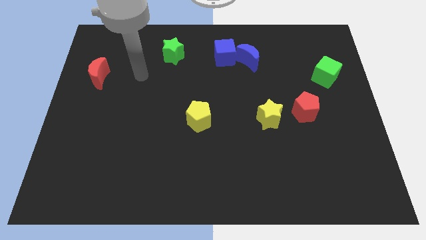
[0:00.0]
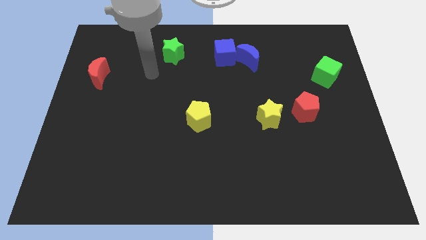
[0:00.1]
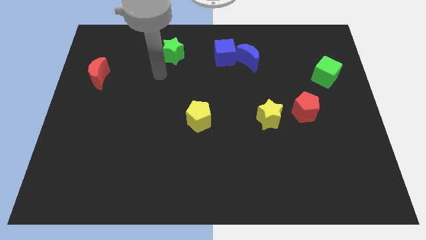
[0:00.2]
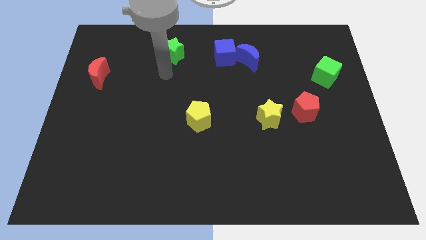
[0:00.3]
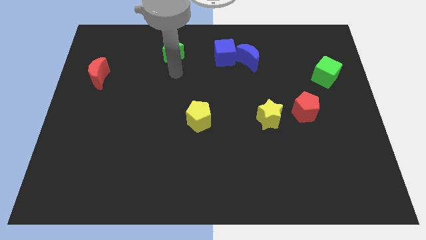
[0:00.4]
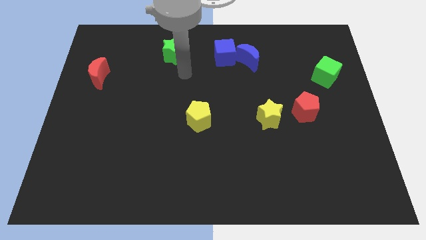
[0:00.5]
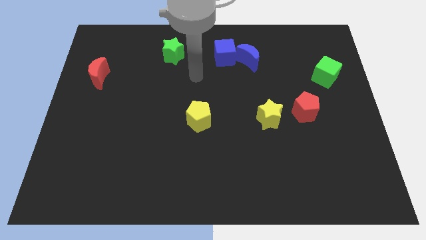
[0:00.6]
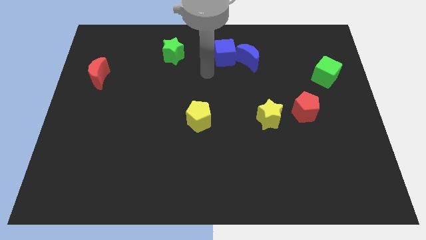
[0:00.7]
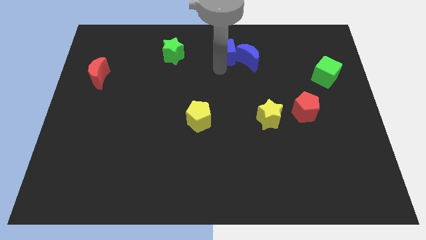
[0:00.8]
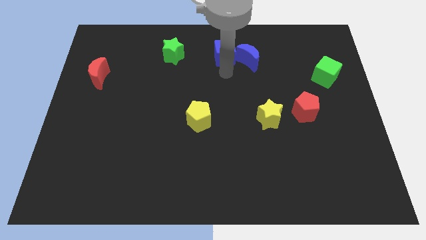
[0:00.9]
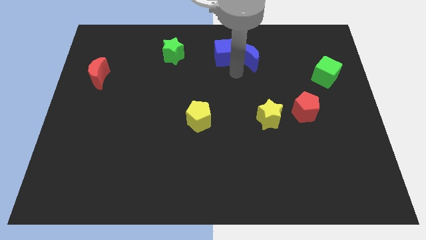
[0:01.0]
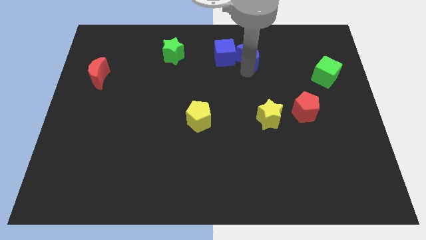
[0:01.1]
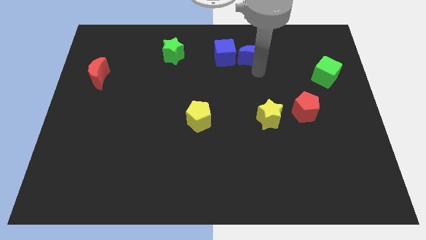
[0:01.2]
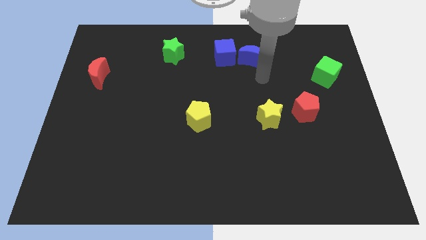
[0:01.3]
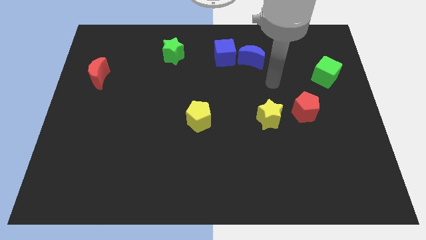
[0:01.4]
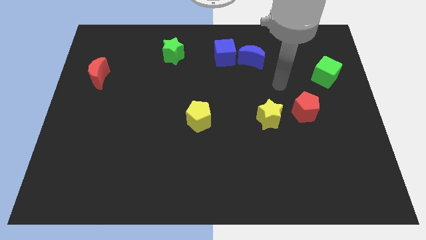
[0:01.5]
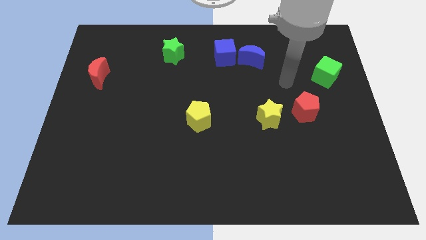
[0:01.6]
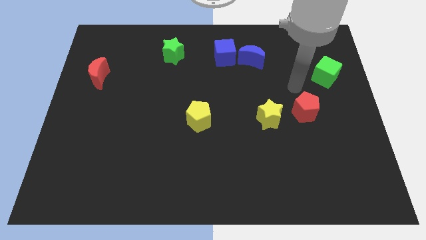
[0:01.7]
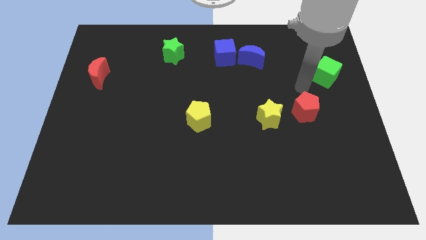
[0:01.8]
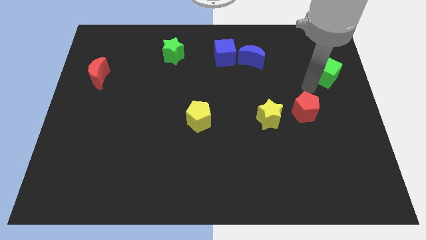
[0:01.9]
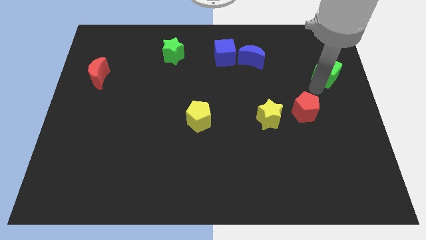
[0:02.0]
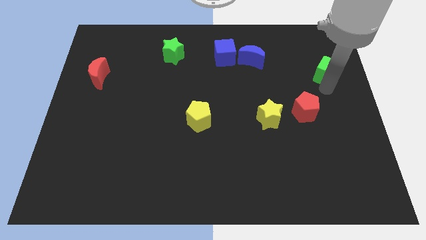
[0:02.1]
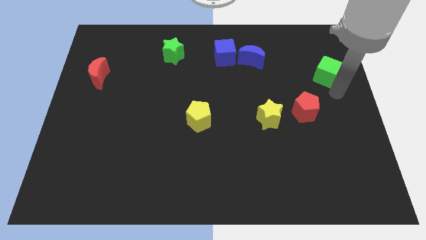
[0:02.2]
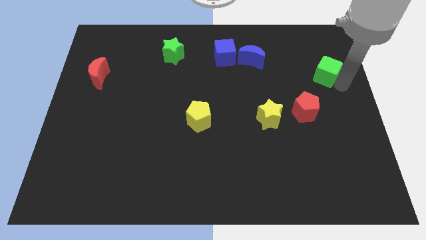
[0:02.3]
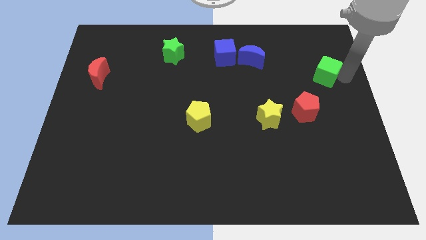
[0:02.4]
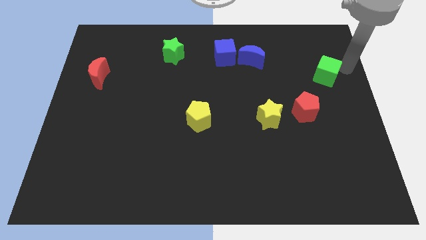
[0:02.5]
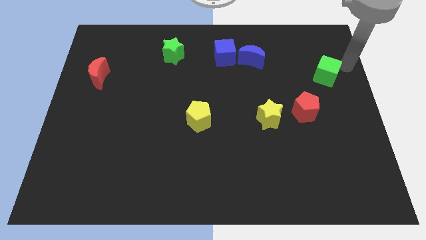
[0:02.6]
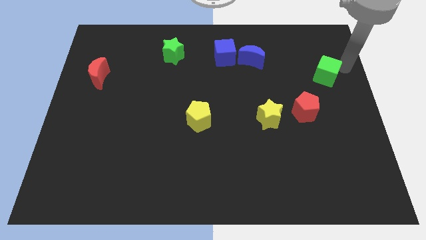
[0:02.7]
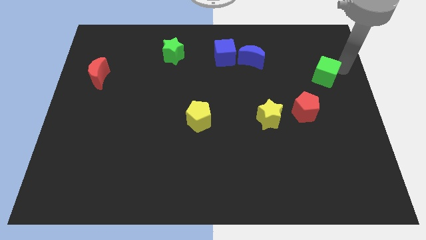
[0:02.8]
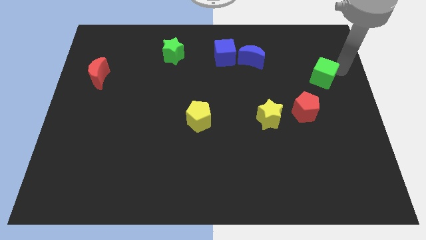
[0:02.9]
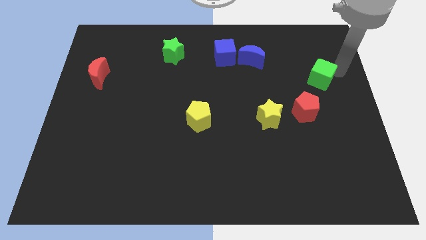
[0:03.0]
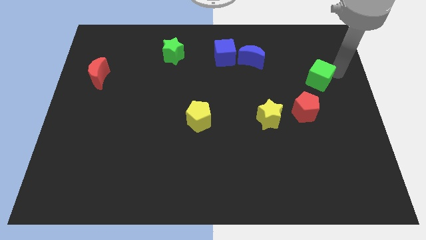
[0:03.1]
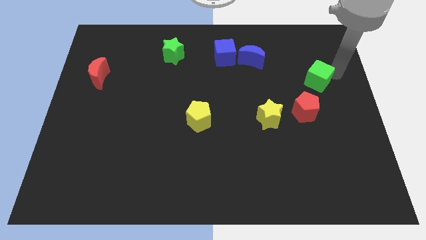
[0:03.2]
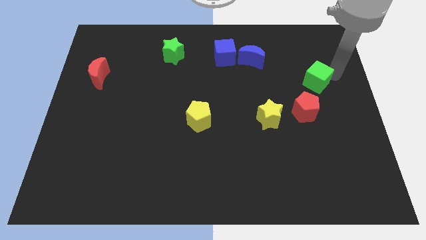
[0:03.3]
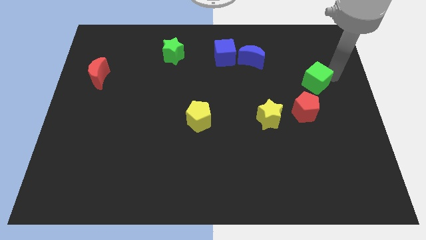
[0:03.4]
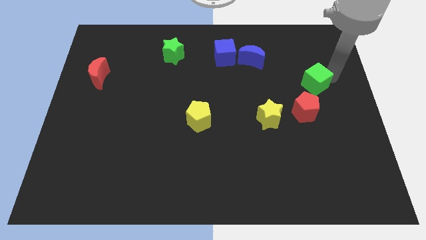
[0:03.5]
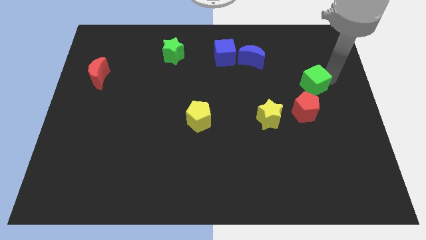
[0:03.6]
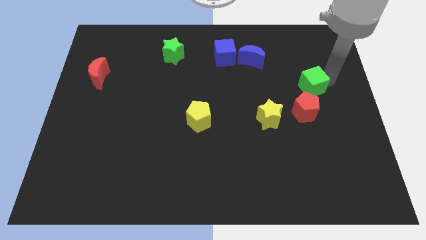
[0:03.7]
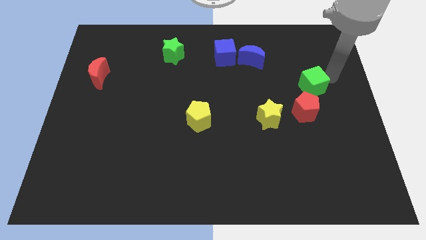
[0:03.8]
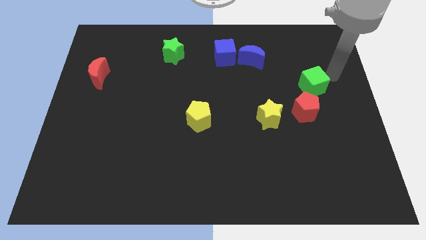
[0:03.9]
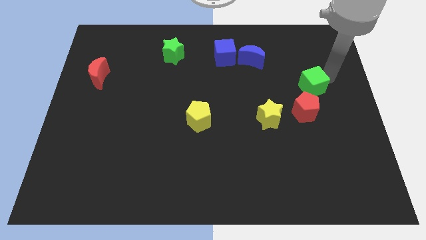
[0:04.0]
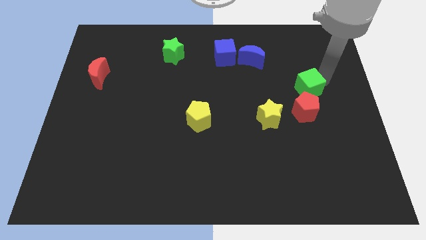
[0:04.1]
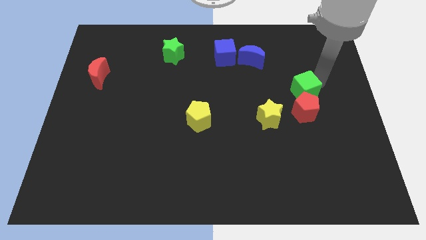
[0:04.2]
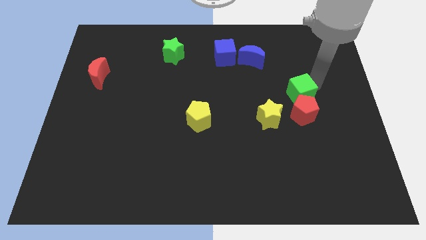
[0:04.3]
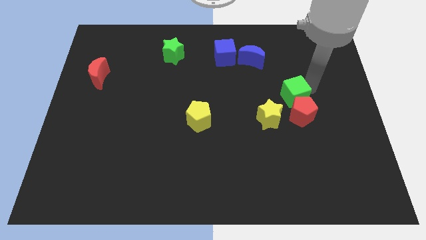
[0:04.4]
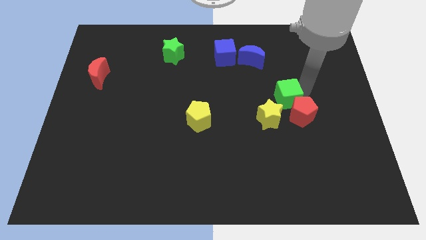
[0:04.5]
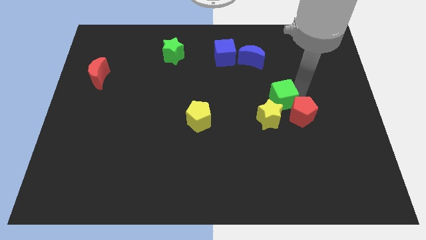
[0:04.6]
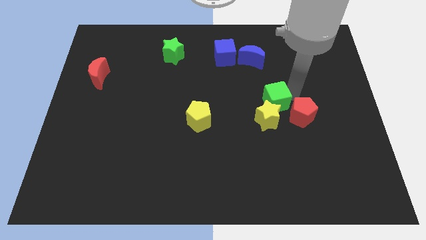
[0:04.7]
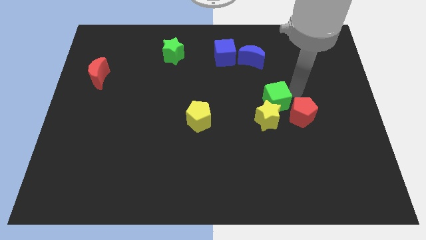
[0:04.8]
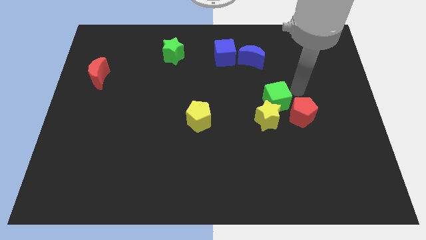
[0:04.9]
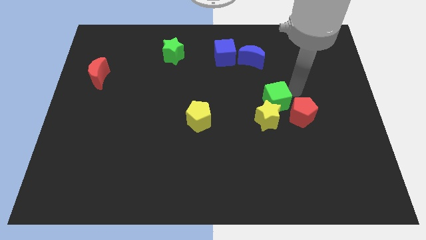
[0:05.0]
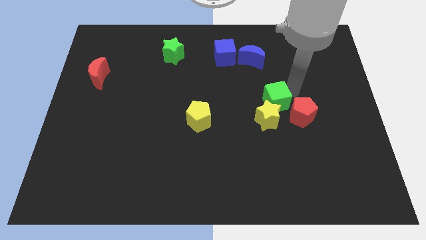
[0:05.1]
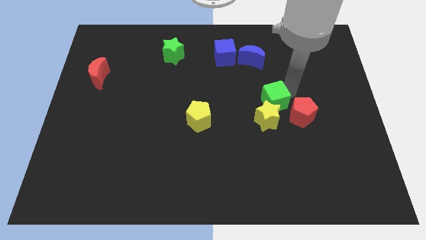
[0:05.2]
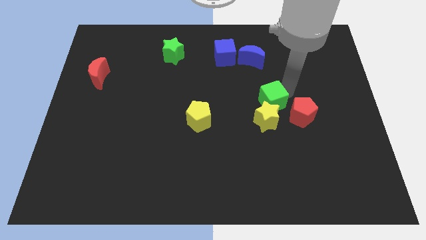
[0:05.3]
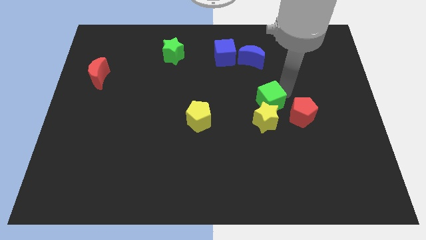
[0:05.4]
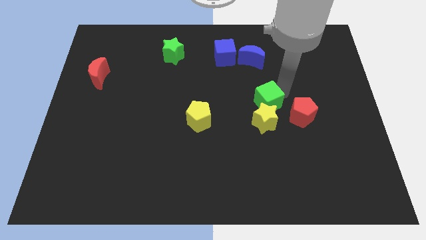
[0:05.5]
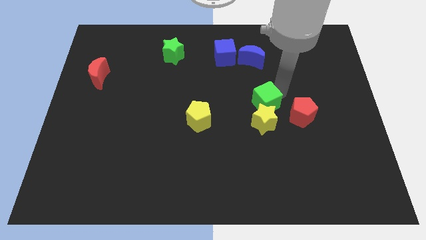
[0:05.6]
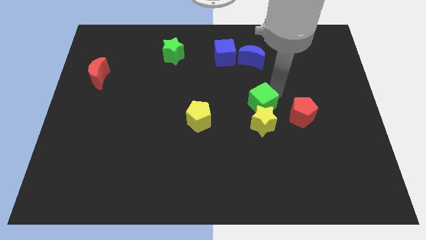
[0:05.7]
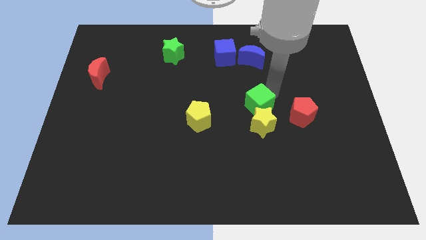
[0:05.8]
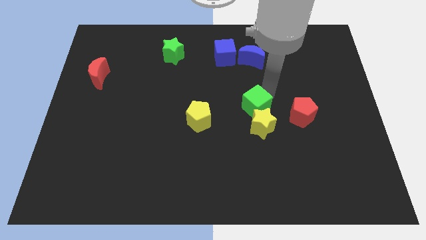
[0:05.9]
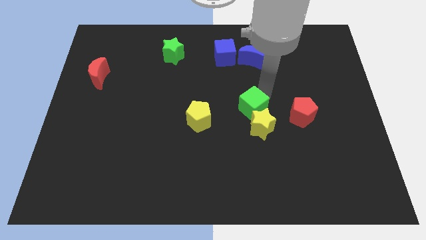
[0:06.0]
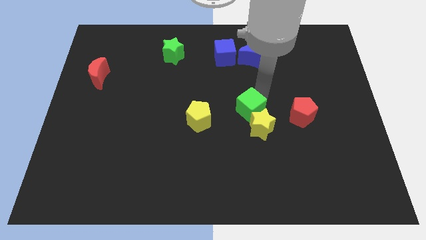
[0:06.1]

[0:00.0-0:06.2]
push the green cube down and to the left

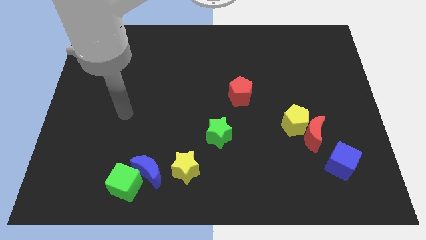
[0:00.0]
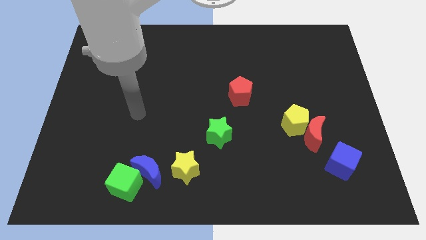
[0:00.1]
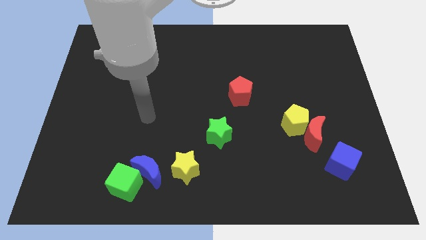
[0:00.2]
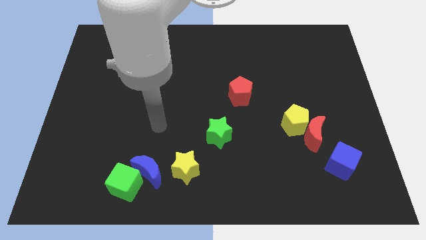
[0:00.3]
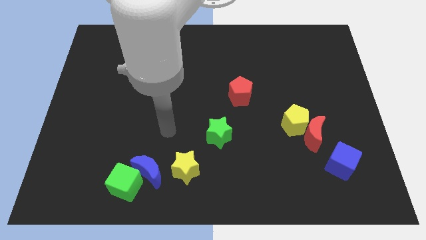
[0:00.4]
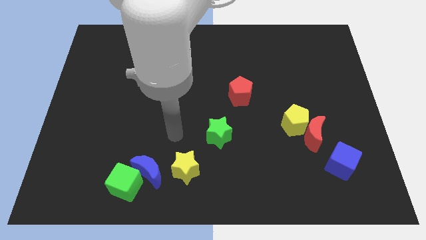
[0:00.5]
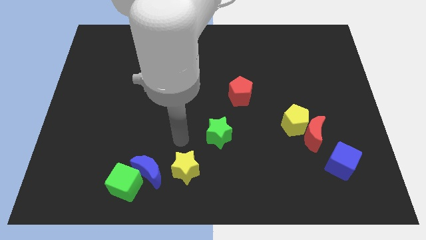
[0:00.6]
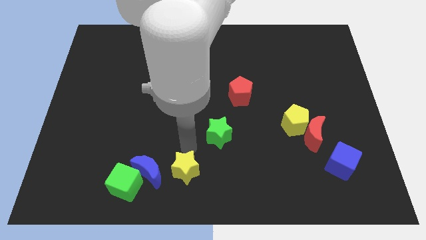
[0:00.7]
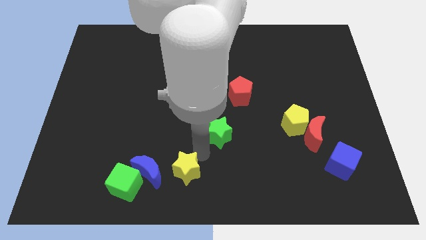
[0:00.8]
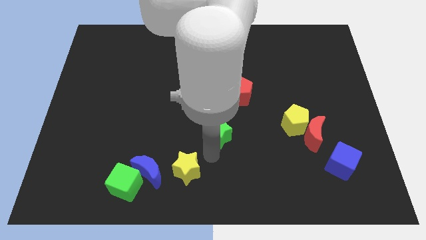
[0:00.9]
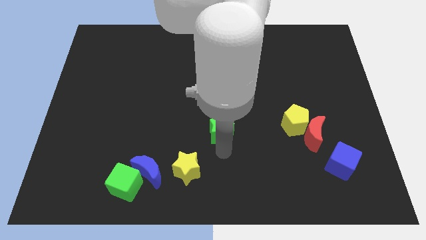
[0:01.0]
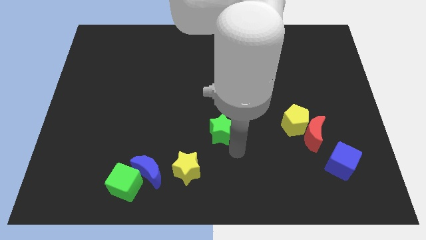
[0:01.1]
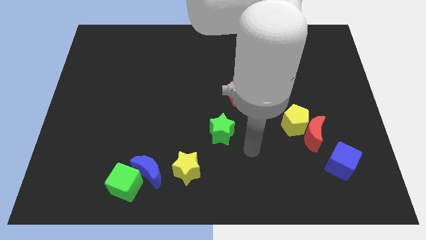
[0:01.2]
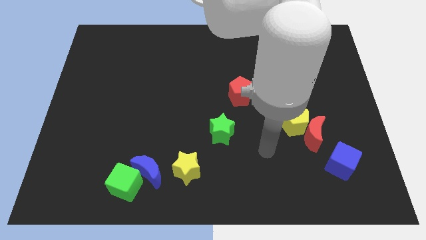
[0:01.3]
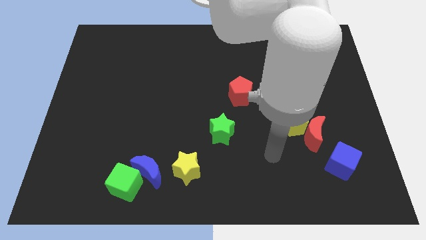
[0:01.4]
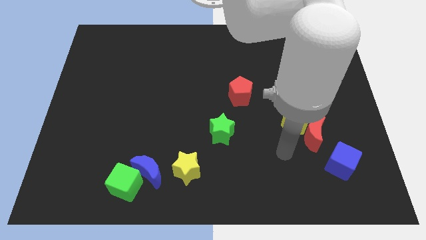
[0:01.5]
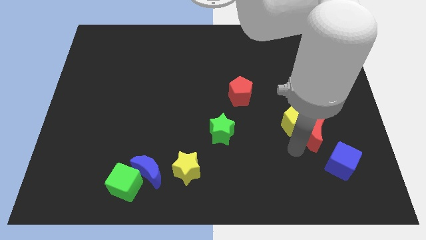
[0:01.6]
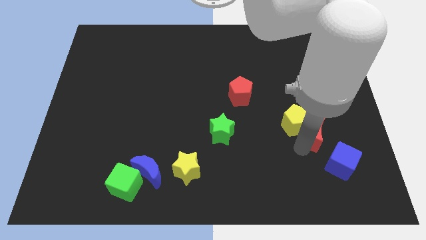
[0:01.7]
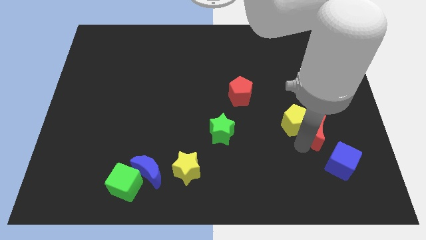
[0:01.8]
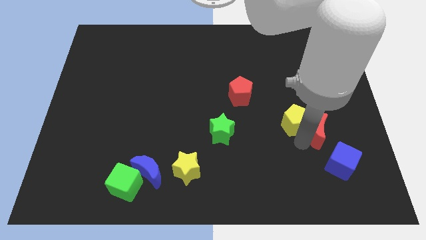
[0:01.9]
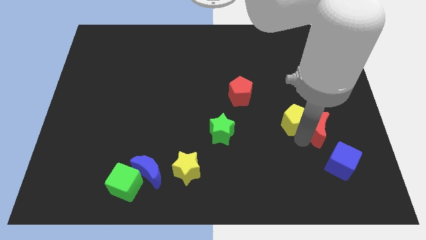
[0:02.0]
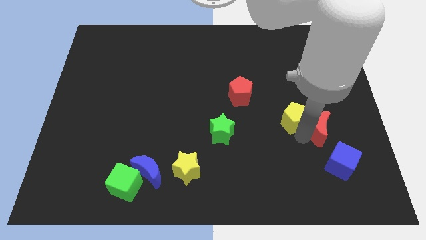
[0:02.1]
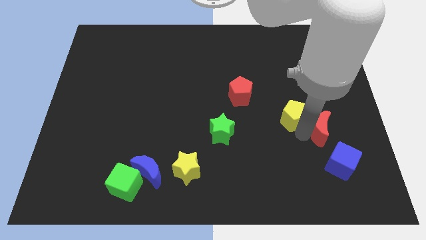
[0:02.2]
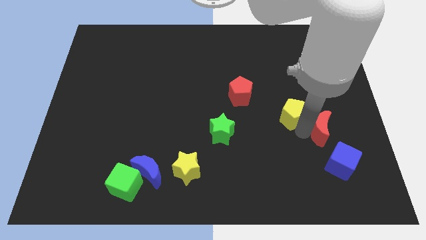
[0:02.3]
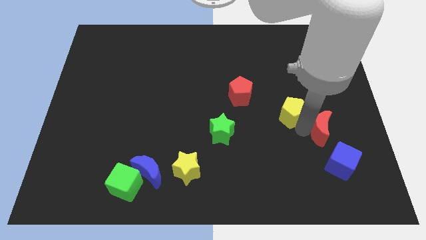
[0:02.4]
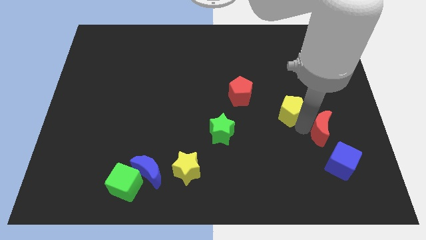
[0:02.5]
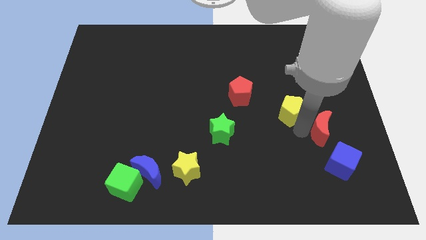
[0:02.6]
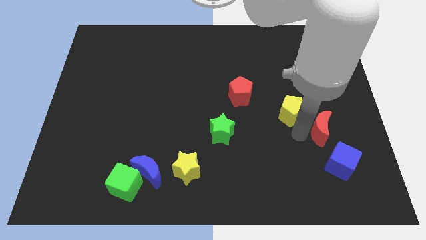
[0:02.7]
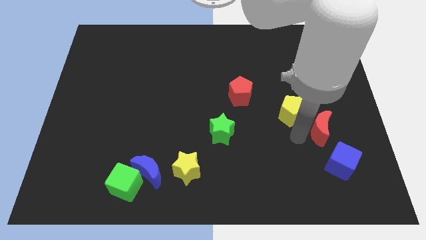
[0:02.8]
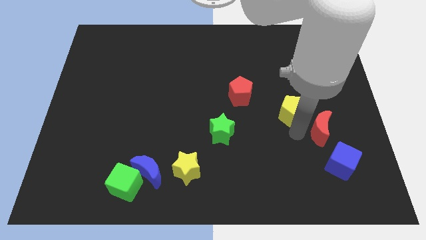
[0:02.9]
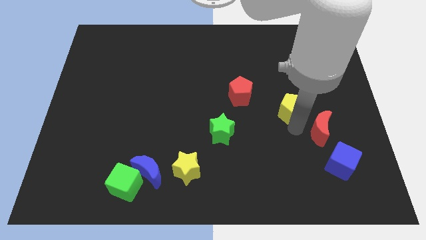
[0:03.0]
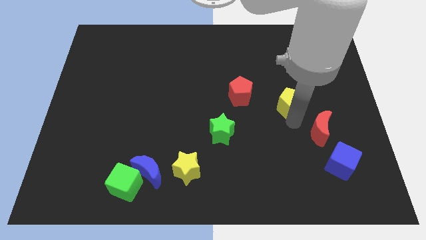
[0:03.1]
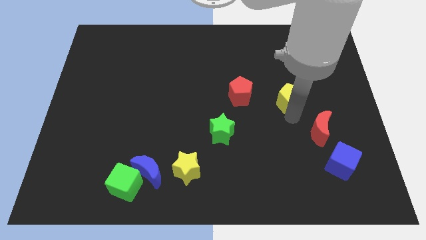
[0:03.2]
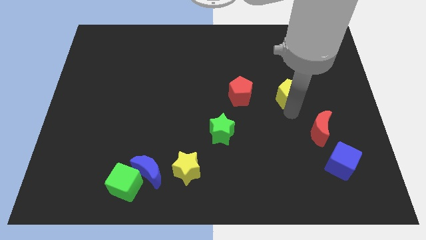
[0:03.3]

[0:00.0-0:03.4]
move the yellow pentagon somewhat up
